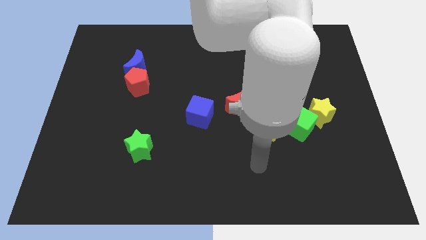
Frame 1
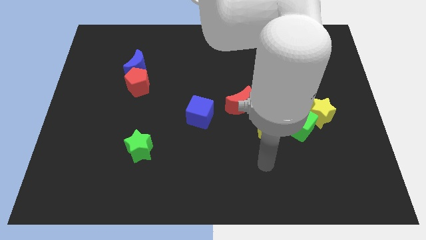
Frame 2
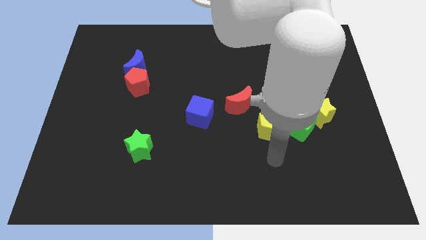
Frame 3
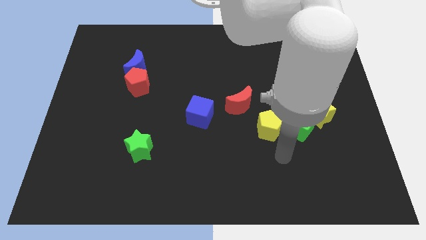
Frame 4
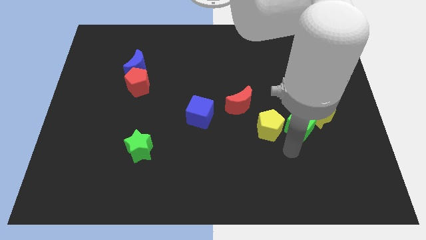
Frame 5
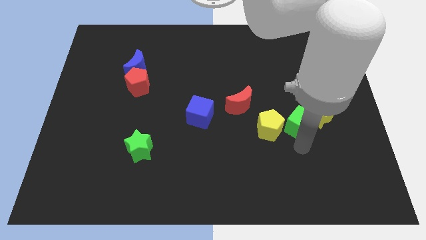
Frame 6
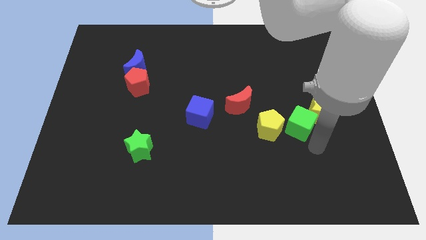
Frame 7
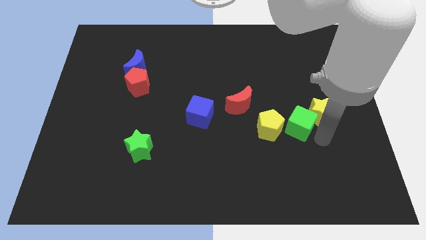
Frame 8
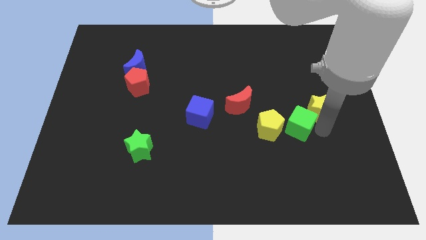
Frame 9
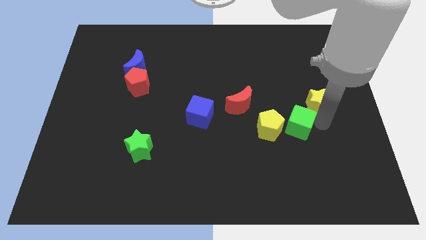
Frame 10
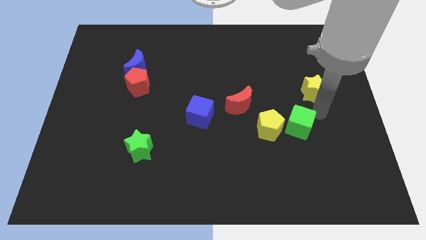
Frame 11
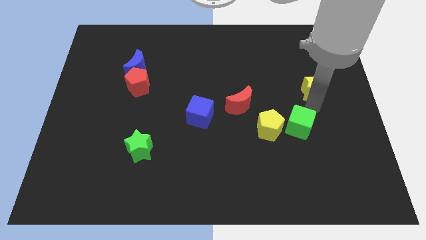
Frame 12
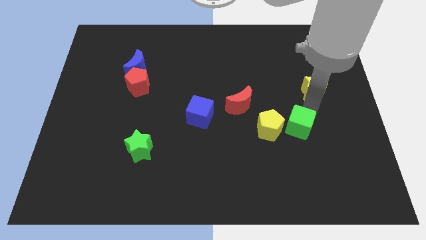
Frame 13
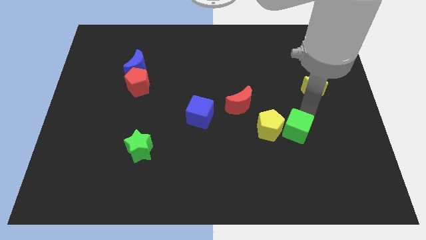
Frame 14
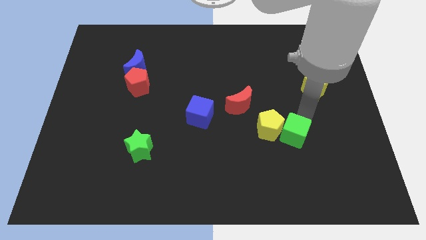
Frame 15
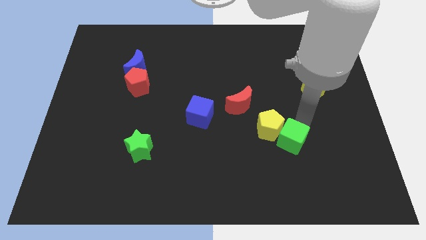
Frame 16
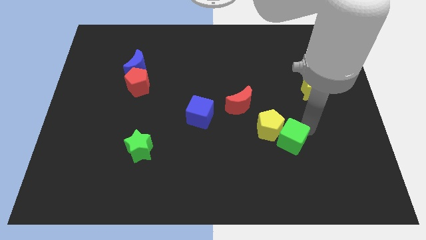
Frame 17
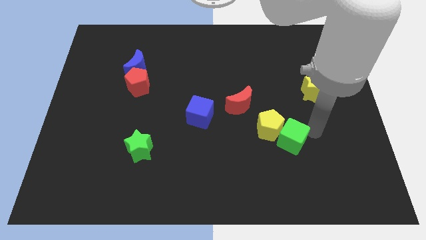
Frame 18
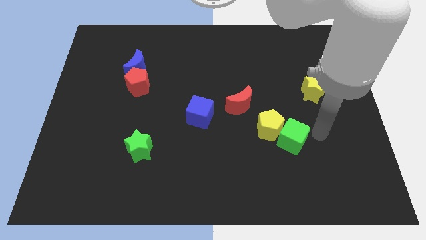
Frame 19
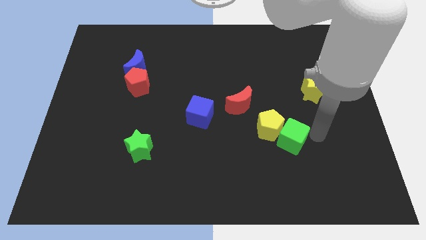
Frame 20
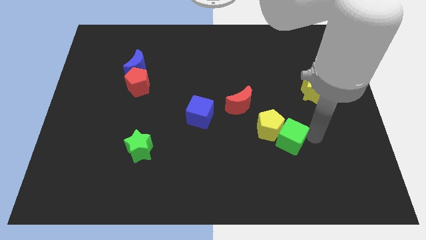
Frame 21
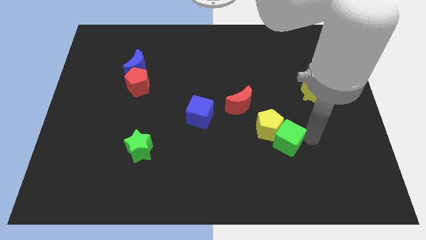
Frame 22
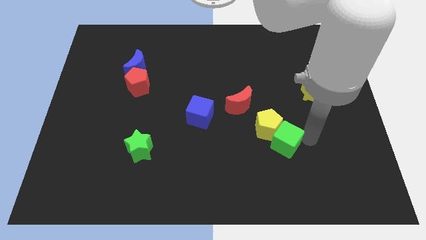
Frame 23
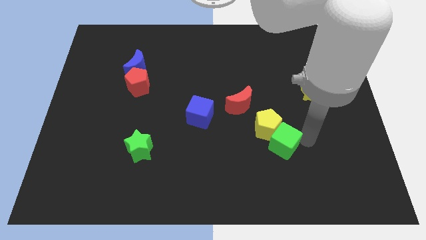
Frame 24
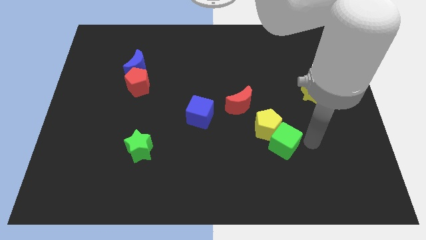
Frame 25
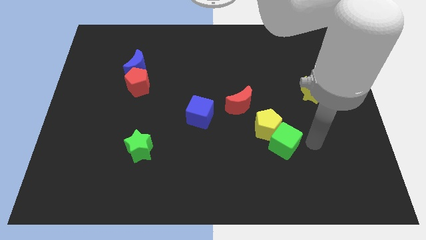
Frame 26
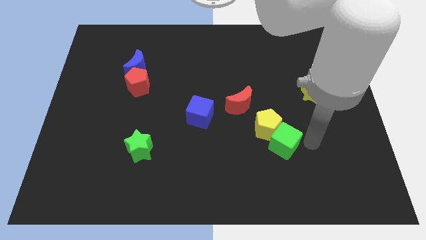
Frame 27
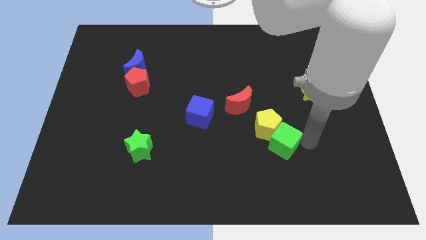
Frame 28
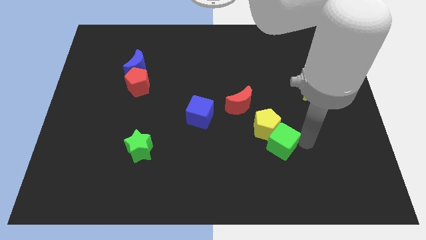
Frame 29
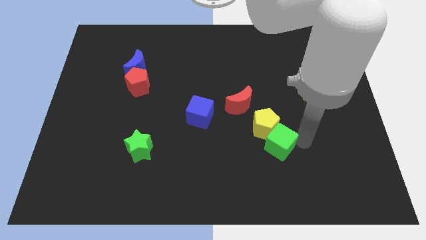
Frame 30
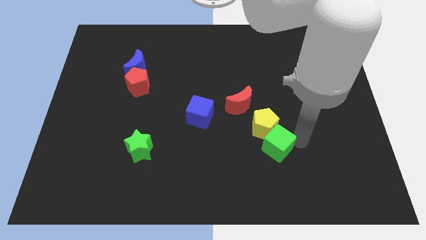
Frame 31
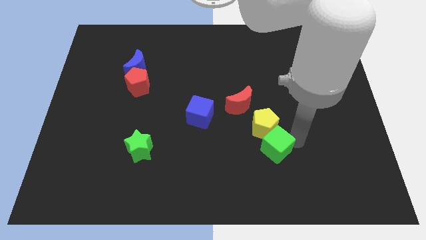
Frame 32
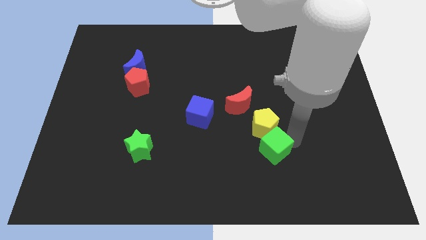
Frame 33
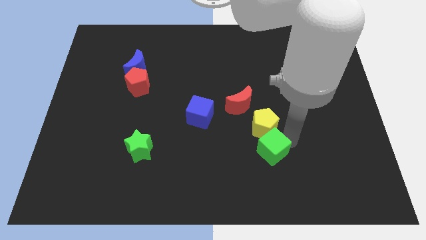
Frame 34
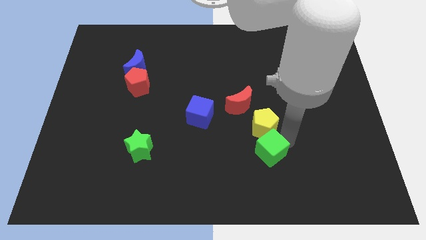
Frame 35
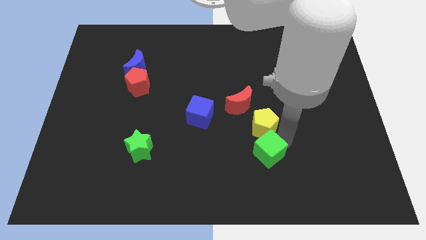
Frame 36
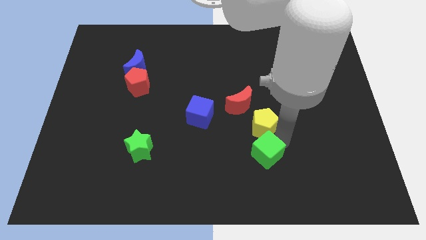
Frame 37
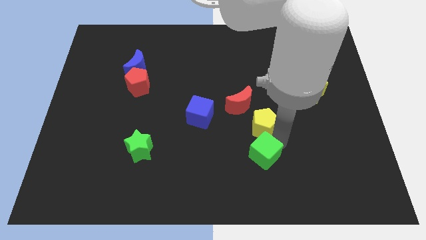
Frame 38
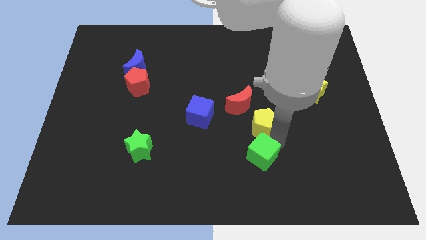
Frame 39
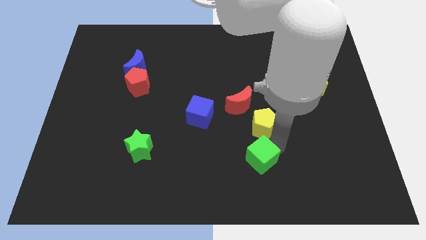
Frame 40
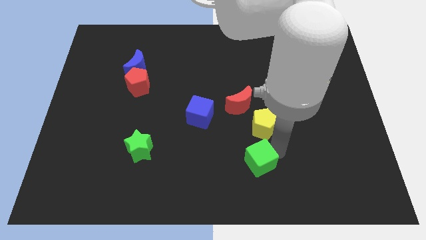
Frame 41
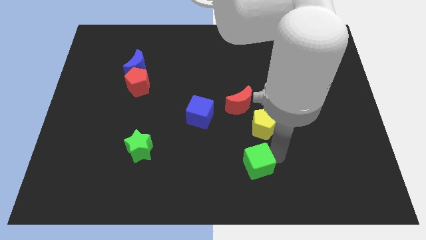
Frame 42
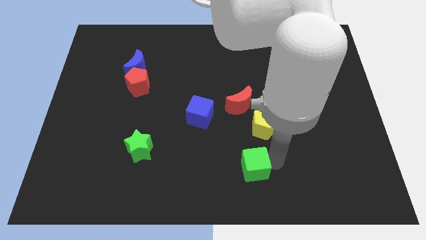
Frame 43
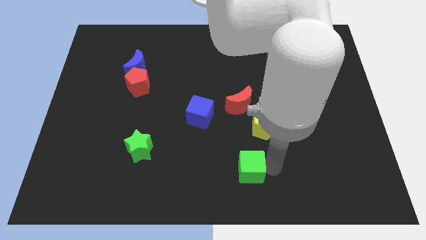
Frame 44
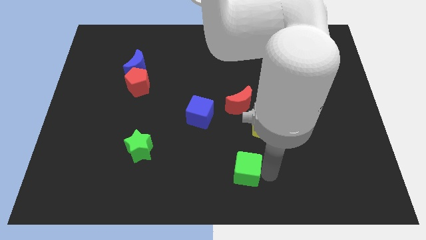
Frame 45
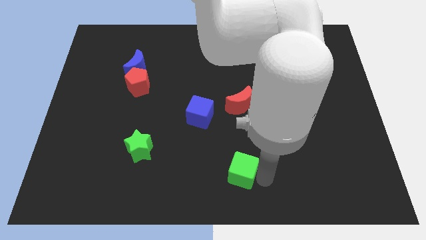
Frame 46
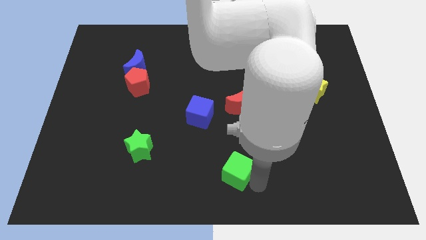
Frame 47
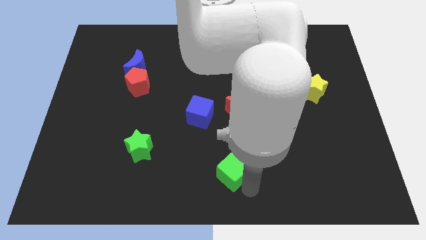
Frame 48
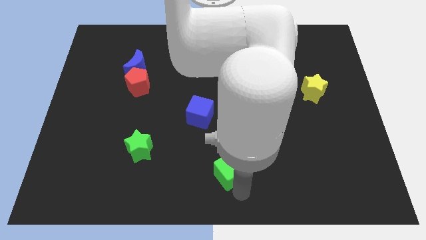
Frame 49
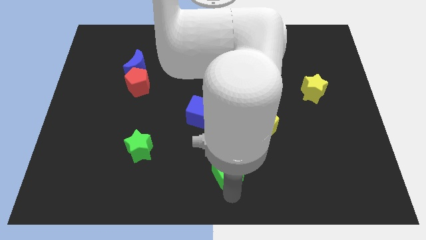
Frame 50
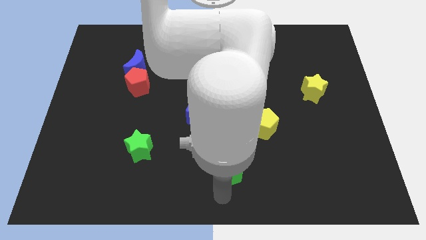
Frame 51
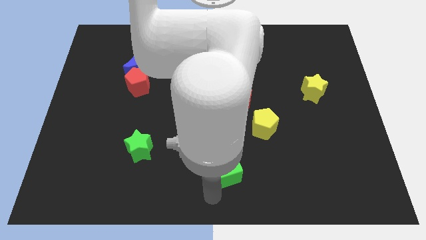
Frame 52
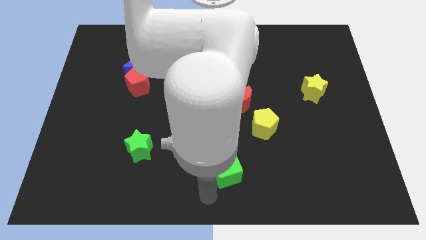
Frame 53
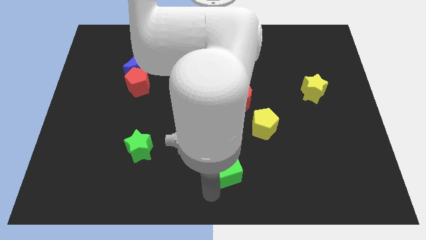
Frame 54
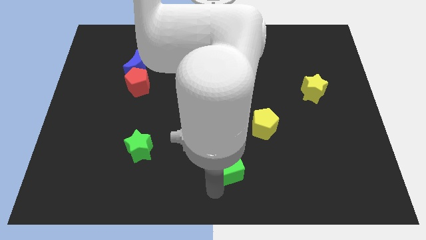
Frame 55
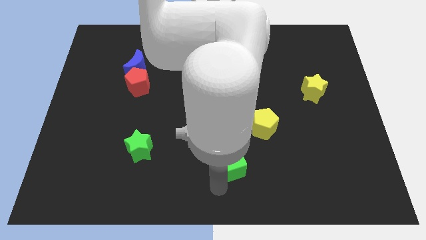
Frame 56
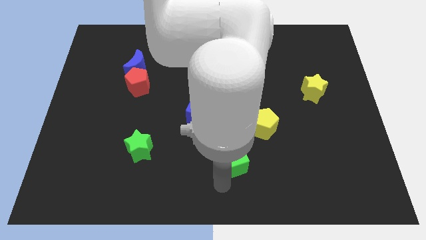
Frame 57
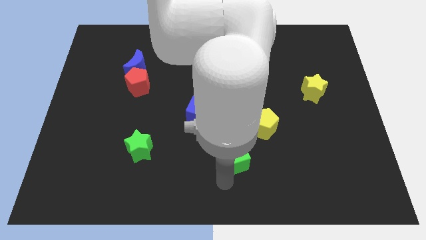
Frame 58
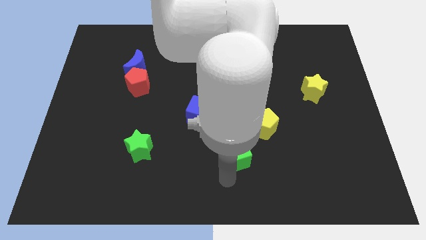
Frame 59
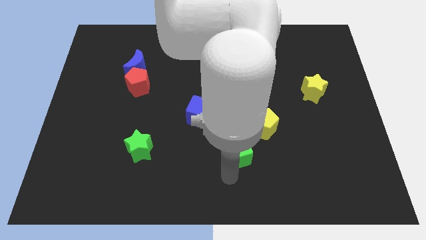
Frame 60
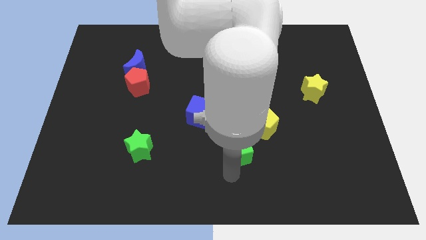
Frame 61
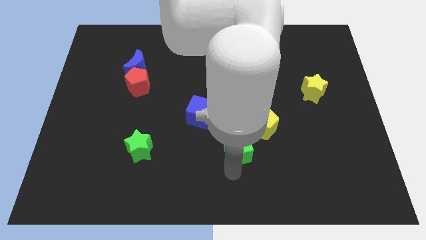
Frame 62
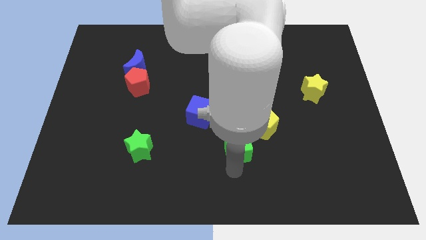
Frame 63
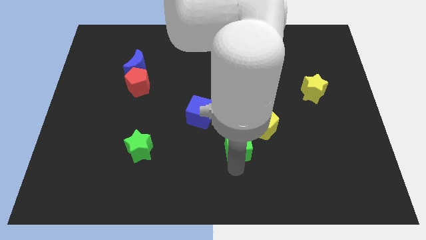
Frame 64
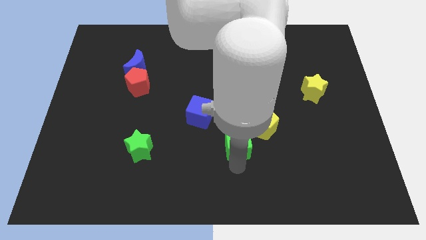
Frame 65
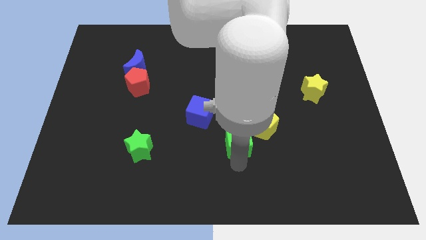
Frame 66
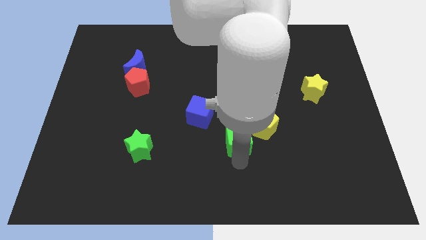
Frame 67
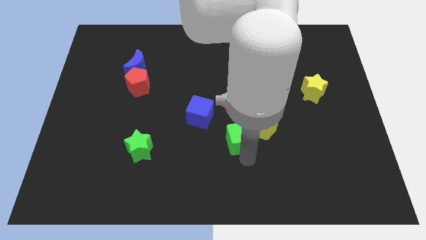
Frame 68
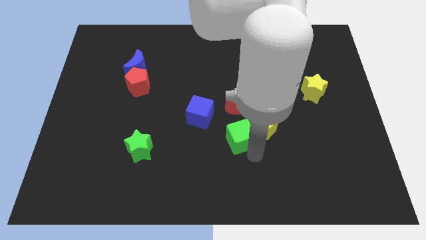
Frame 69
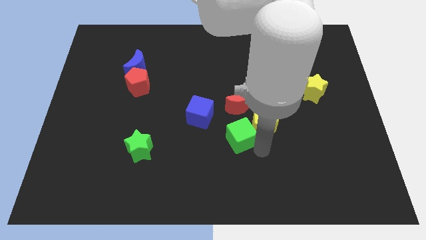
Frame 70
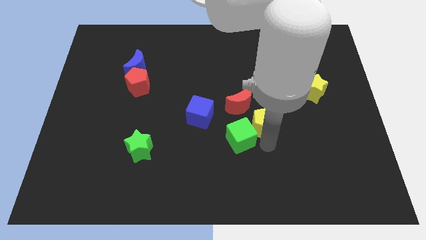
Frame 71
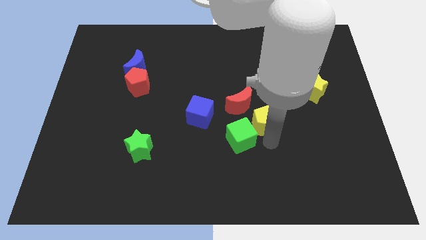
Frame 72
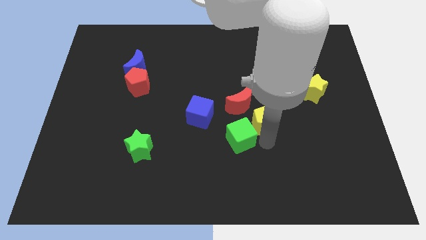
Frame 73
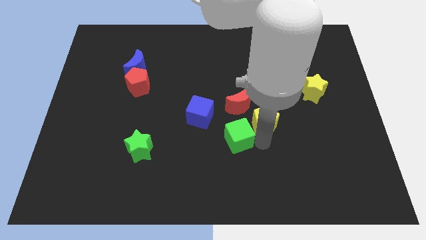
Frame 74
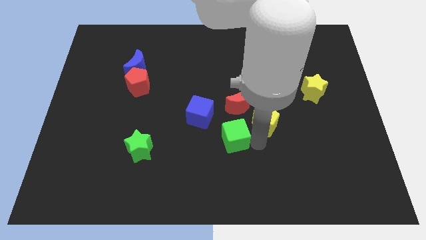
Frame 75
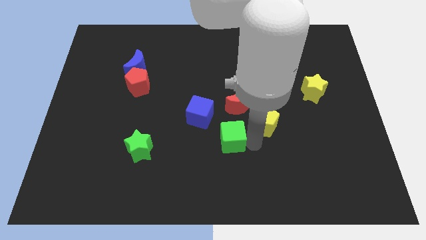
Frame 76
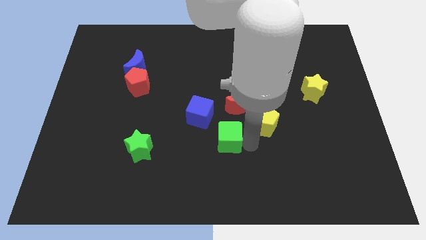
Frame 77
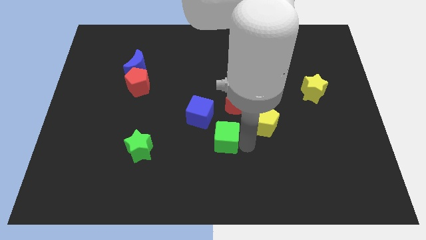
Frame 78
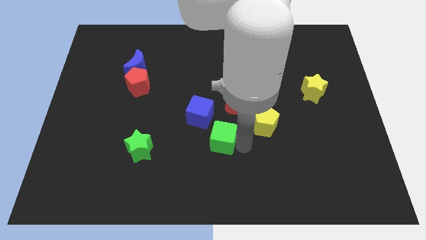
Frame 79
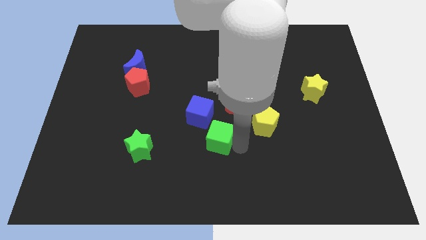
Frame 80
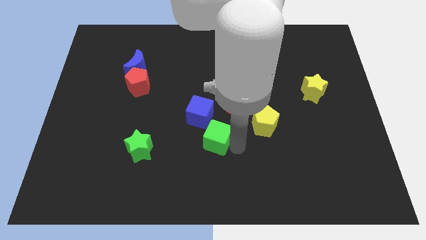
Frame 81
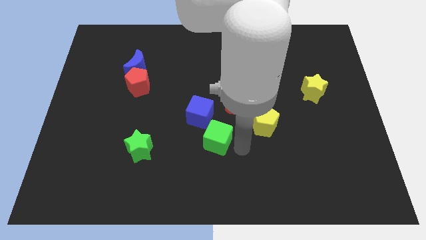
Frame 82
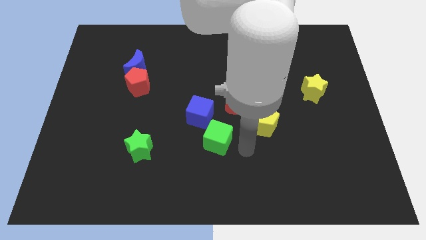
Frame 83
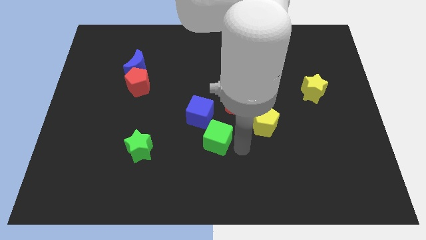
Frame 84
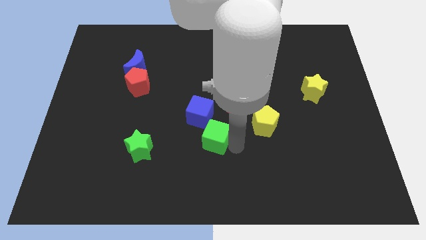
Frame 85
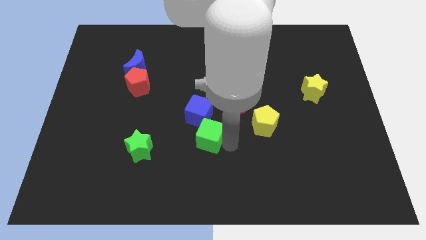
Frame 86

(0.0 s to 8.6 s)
slide the green cube to the left
